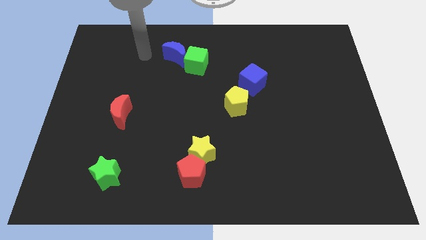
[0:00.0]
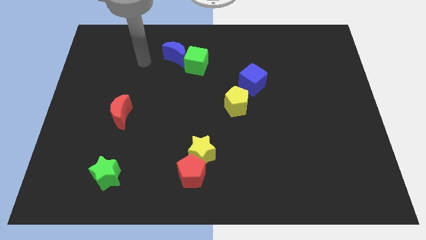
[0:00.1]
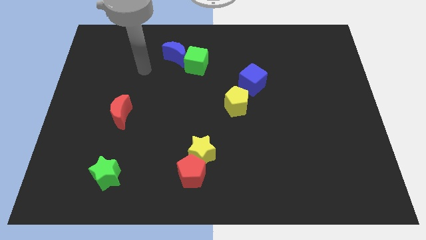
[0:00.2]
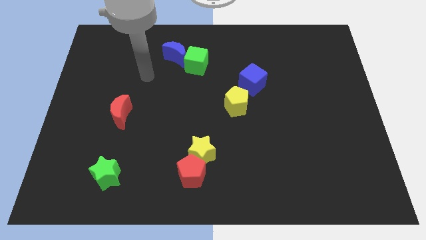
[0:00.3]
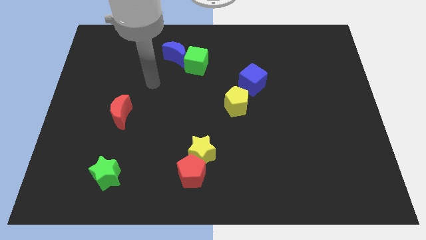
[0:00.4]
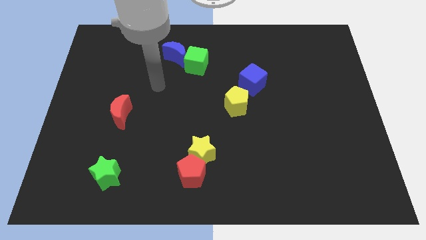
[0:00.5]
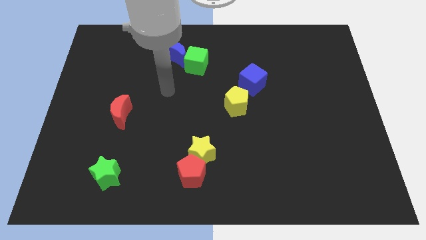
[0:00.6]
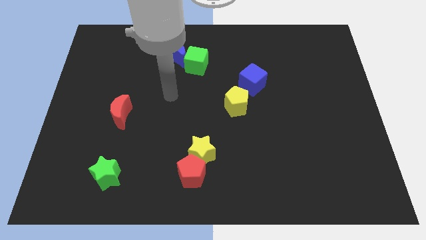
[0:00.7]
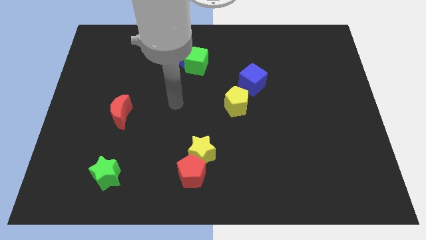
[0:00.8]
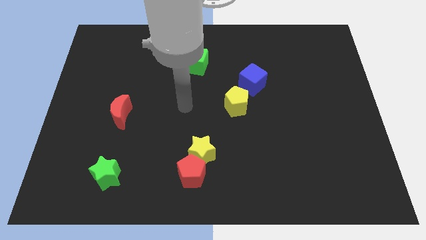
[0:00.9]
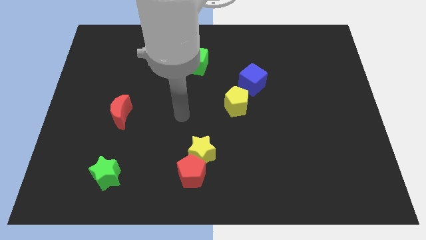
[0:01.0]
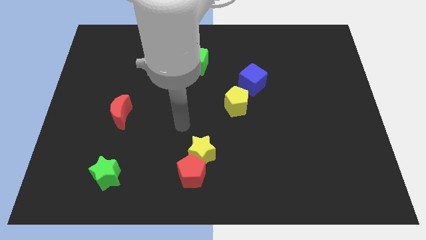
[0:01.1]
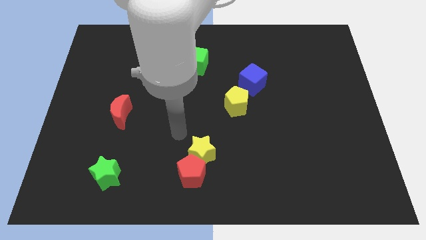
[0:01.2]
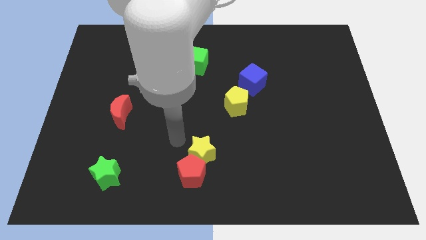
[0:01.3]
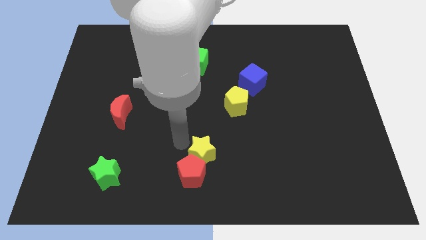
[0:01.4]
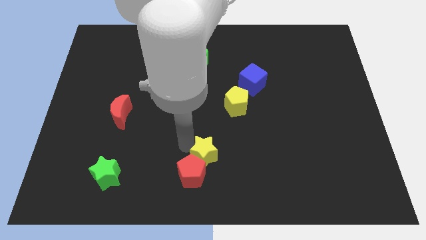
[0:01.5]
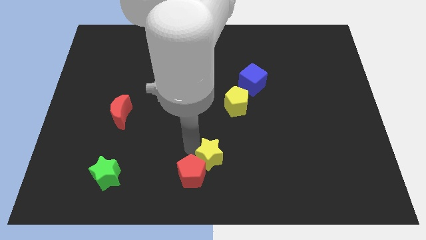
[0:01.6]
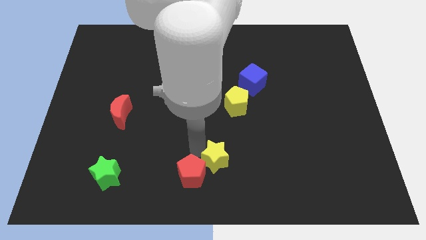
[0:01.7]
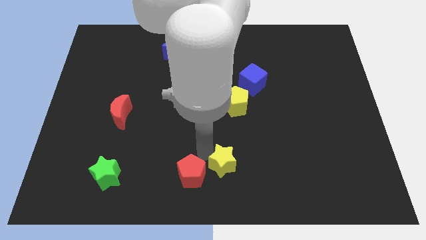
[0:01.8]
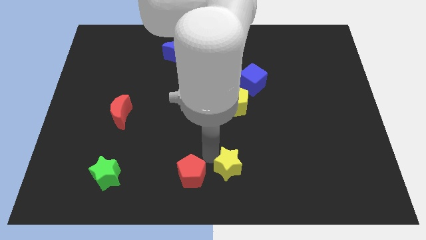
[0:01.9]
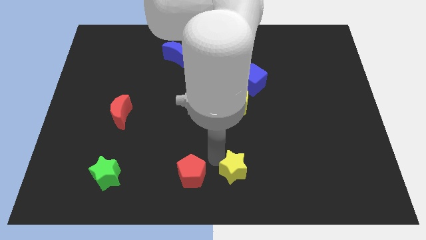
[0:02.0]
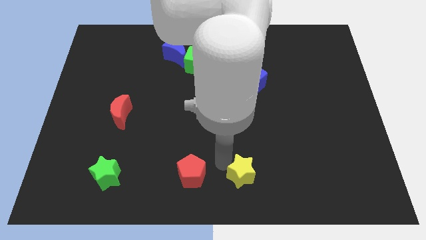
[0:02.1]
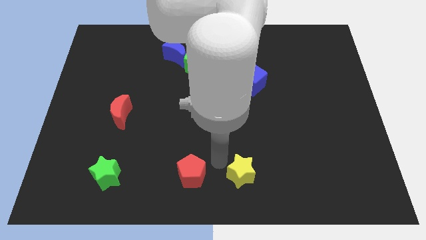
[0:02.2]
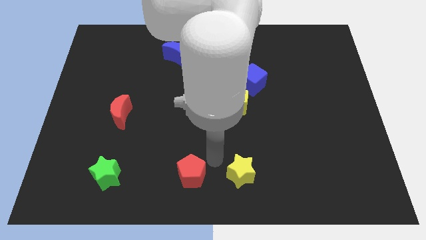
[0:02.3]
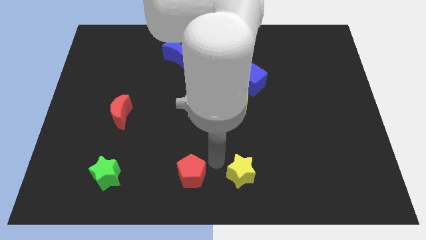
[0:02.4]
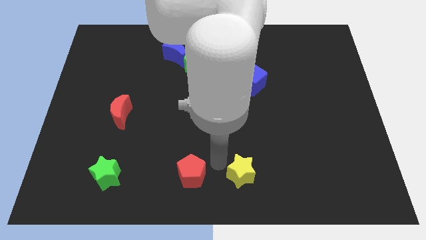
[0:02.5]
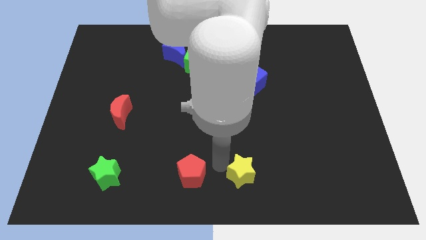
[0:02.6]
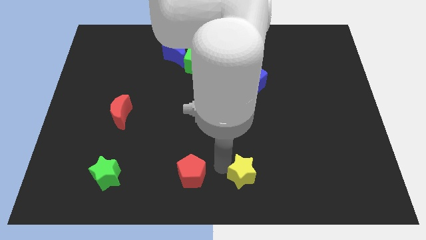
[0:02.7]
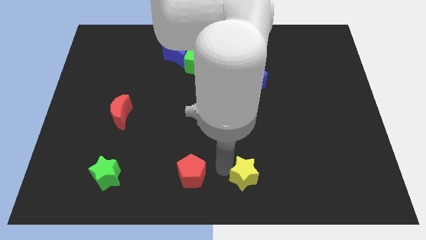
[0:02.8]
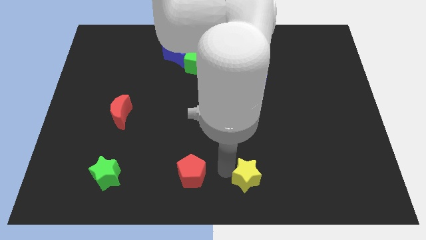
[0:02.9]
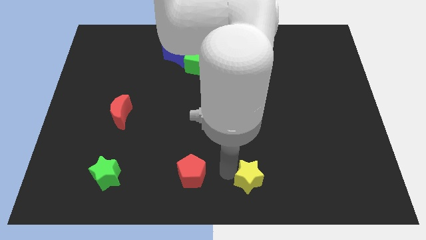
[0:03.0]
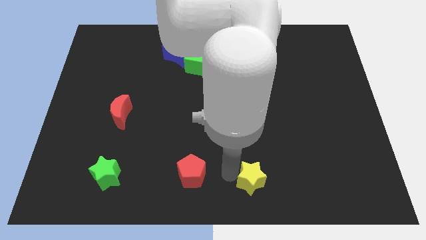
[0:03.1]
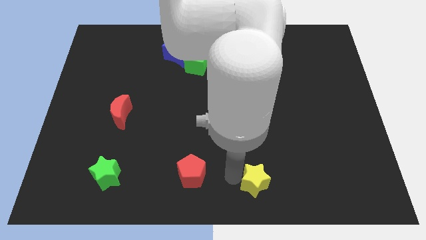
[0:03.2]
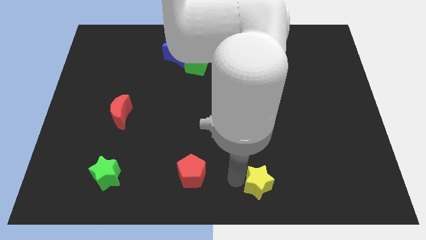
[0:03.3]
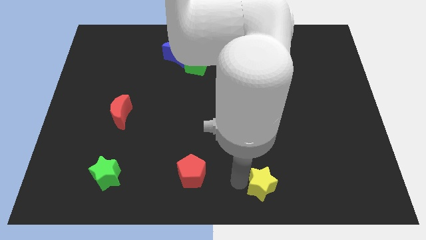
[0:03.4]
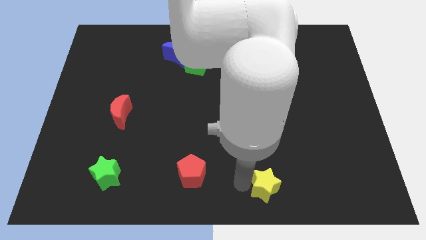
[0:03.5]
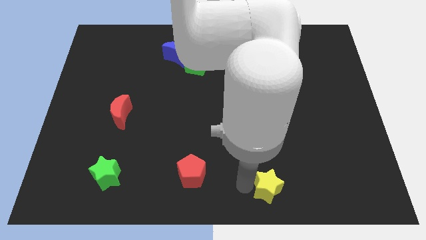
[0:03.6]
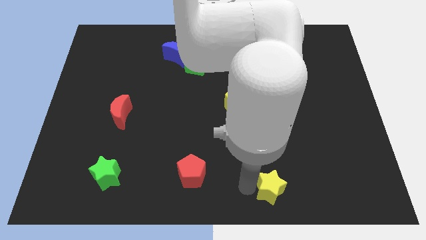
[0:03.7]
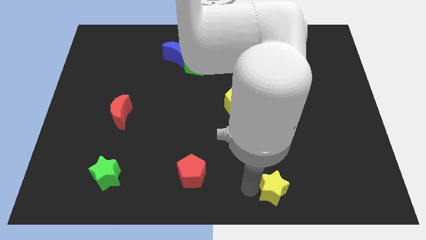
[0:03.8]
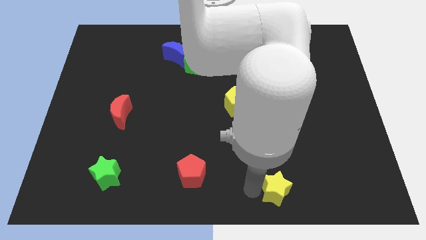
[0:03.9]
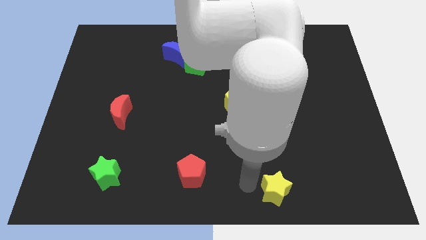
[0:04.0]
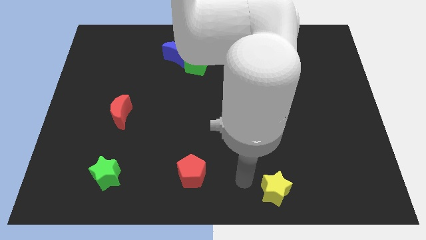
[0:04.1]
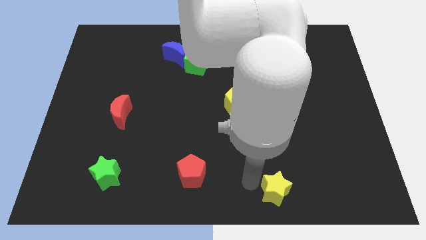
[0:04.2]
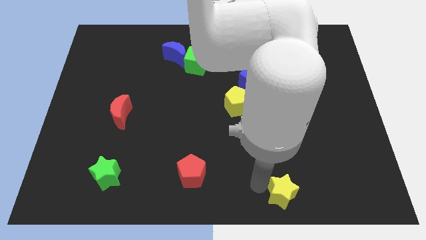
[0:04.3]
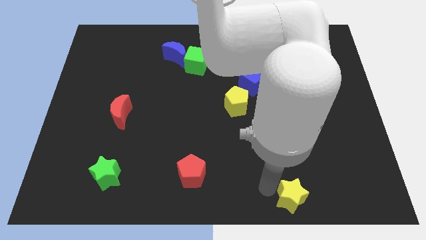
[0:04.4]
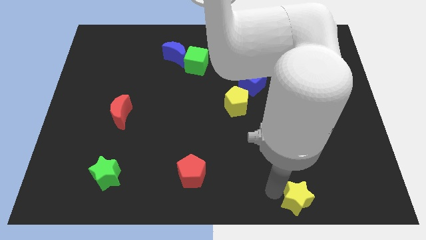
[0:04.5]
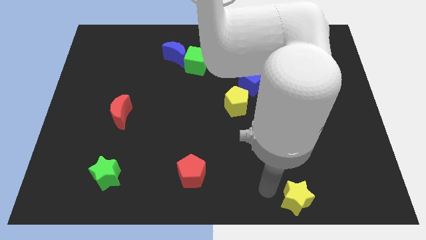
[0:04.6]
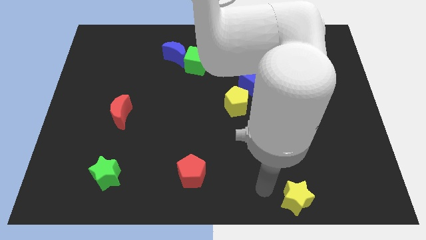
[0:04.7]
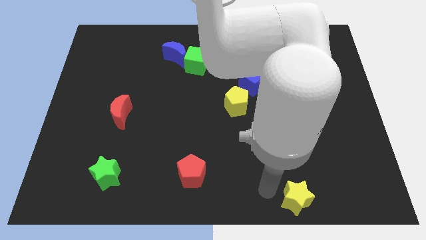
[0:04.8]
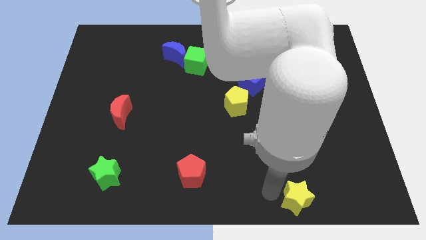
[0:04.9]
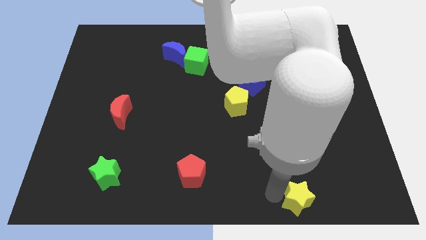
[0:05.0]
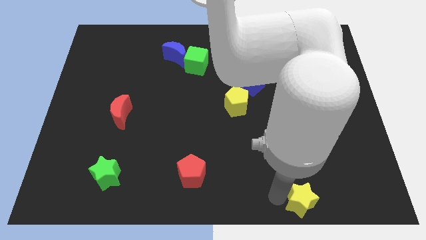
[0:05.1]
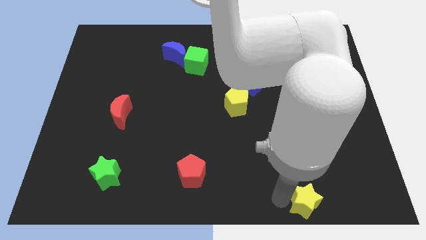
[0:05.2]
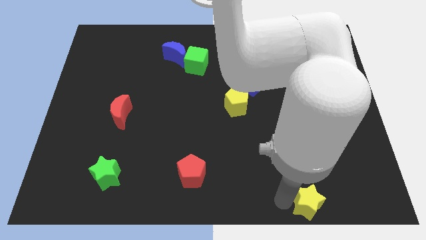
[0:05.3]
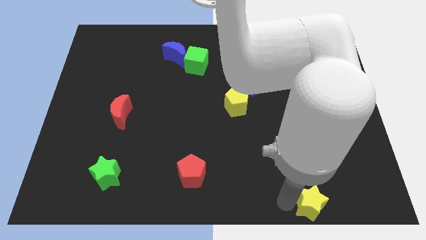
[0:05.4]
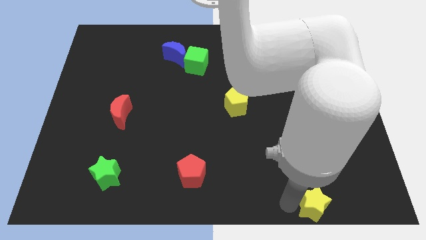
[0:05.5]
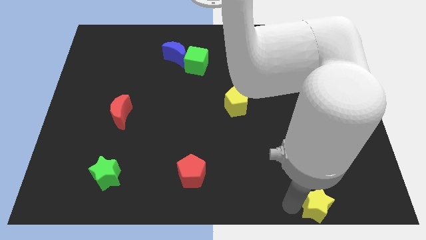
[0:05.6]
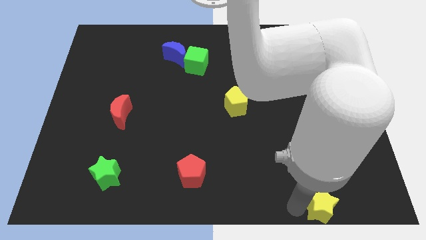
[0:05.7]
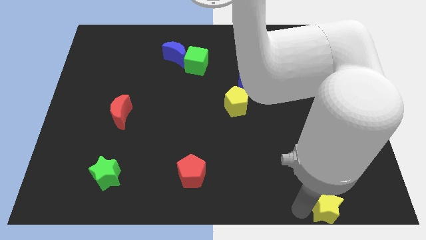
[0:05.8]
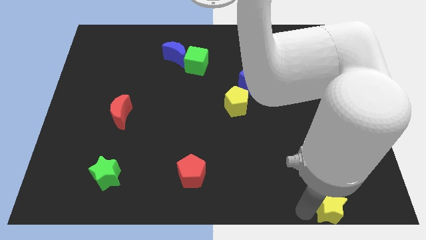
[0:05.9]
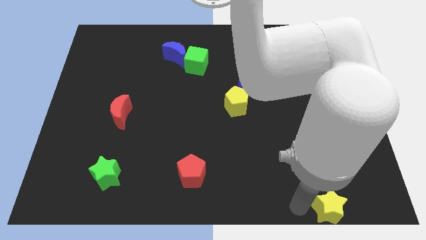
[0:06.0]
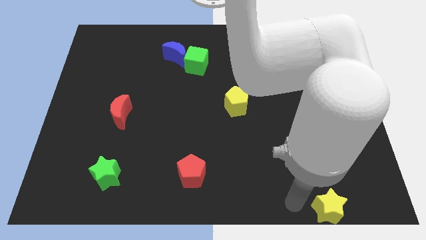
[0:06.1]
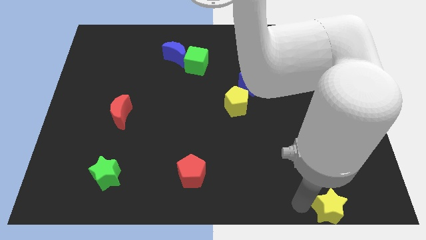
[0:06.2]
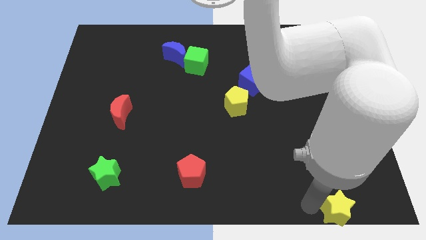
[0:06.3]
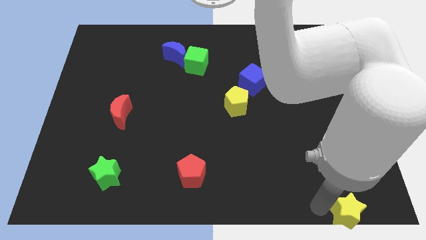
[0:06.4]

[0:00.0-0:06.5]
move the yellow star to the bottom right
